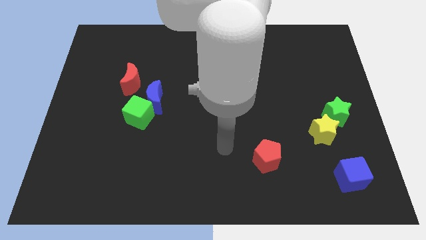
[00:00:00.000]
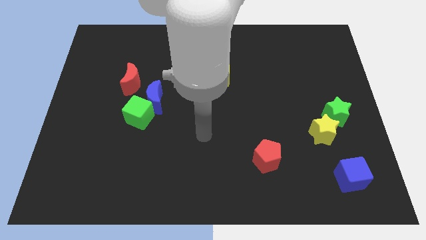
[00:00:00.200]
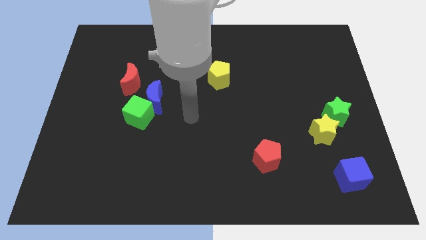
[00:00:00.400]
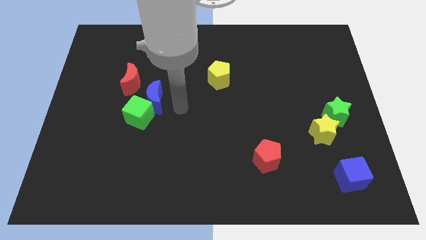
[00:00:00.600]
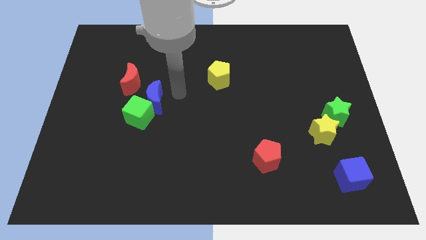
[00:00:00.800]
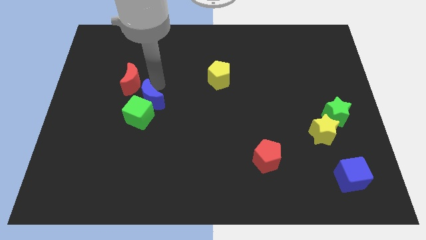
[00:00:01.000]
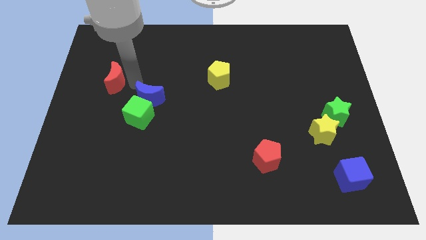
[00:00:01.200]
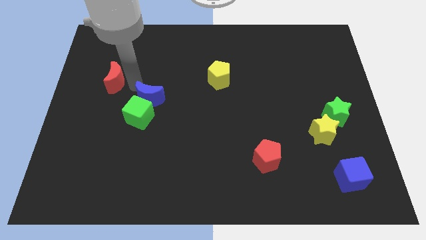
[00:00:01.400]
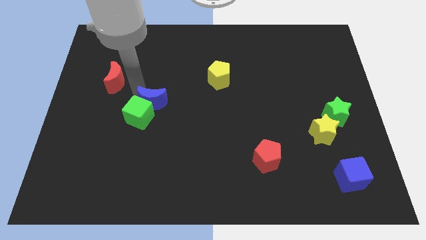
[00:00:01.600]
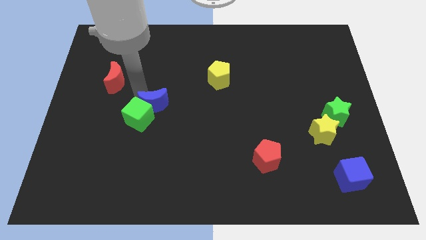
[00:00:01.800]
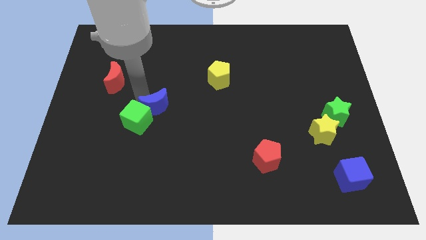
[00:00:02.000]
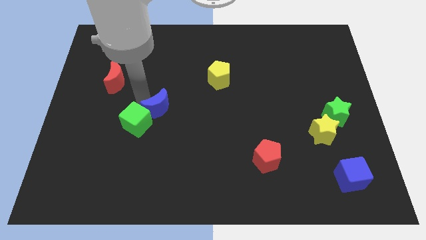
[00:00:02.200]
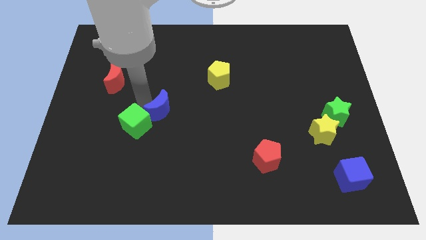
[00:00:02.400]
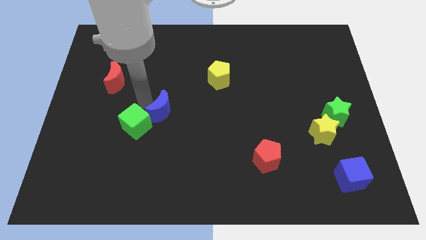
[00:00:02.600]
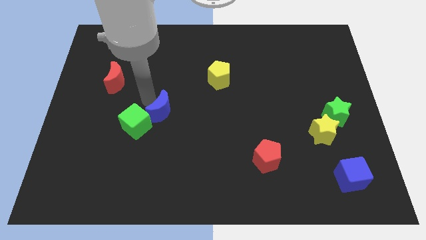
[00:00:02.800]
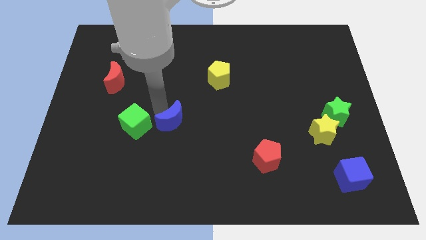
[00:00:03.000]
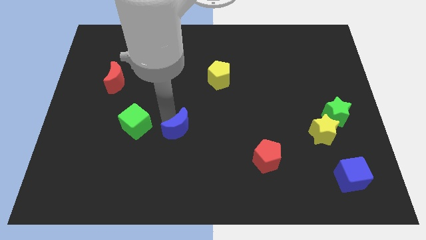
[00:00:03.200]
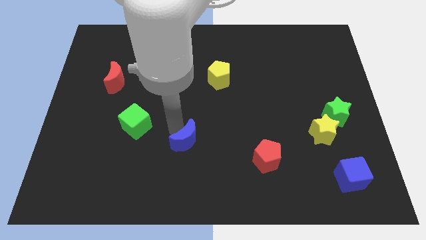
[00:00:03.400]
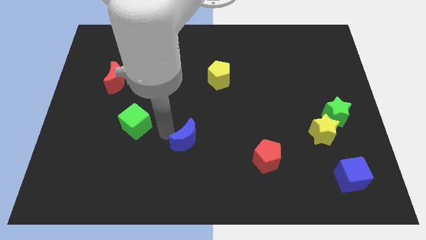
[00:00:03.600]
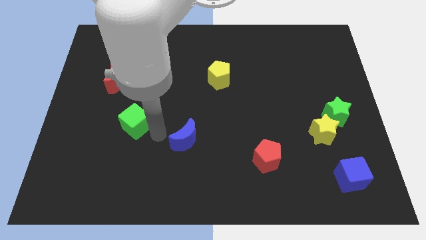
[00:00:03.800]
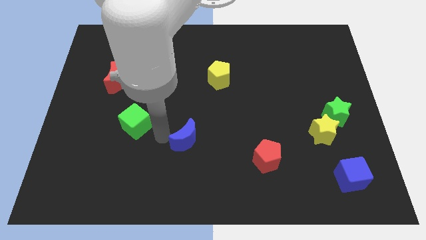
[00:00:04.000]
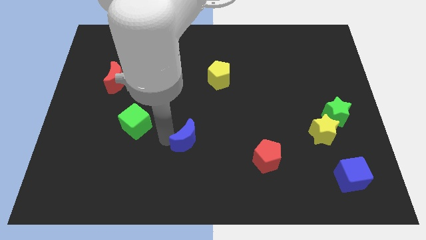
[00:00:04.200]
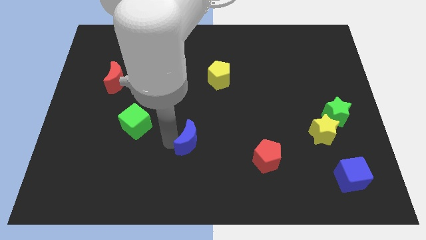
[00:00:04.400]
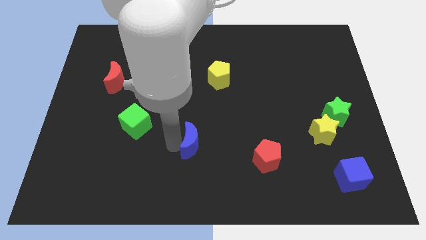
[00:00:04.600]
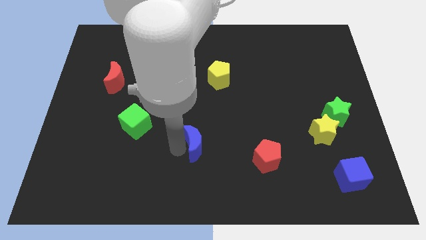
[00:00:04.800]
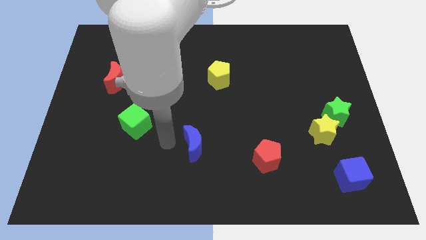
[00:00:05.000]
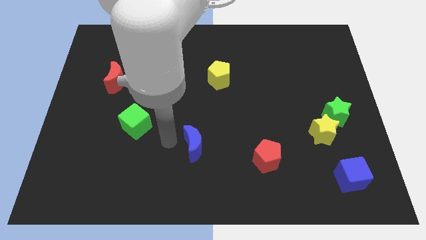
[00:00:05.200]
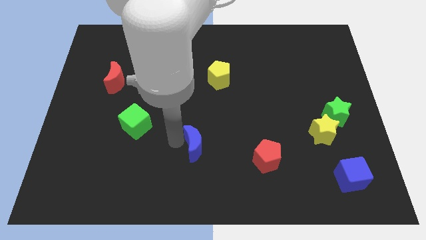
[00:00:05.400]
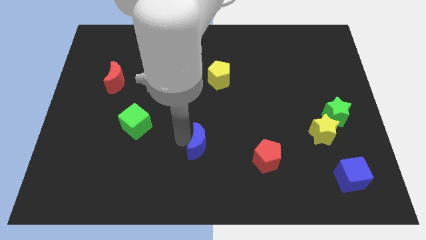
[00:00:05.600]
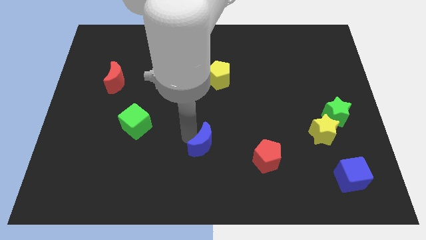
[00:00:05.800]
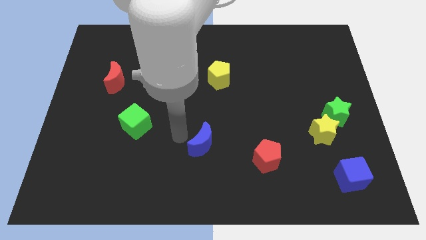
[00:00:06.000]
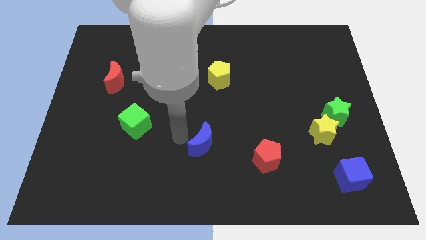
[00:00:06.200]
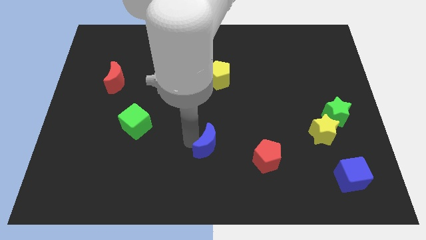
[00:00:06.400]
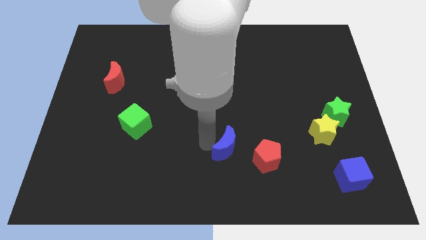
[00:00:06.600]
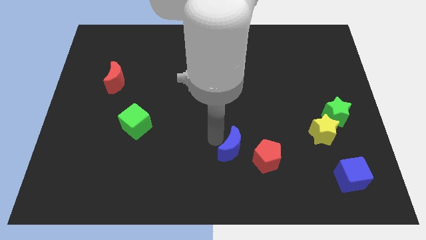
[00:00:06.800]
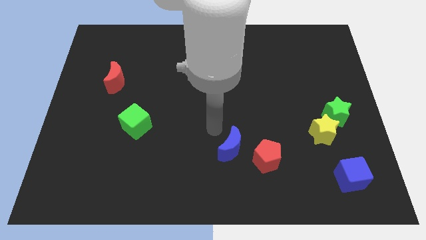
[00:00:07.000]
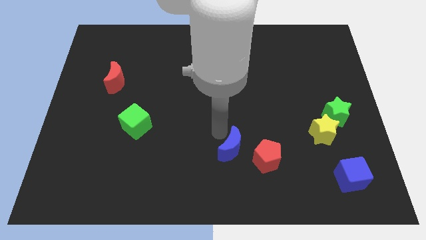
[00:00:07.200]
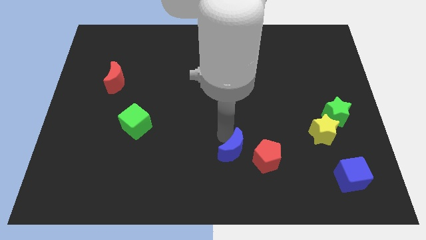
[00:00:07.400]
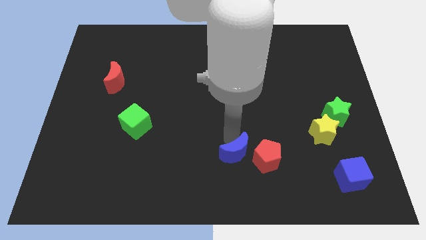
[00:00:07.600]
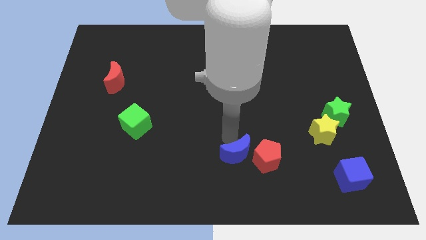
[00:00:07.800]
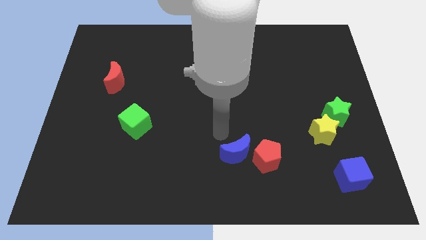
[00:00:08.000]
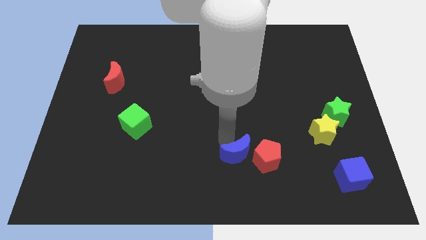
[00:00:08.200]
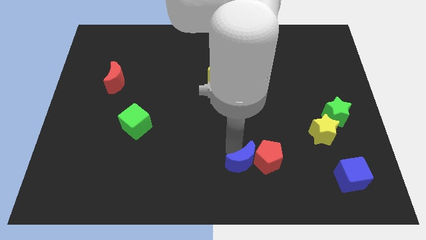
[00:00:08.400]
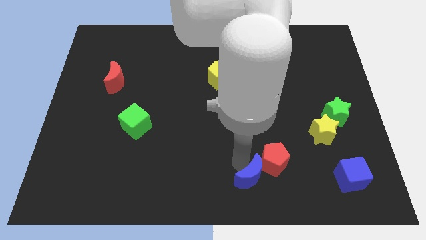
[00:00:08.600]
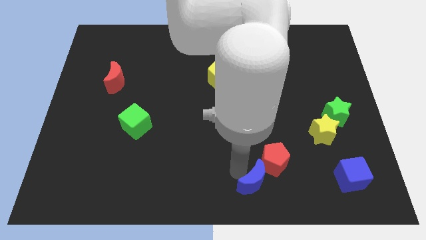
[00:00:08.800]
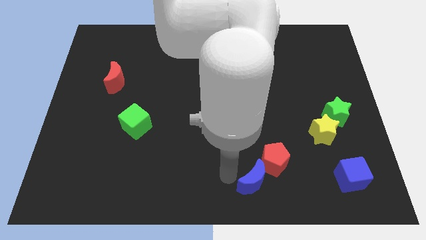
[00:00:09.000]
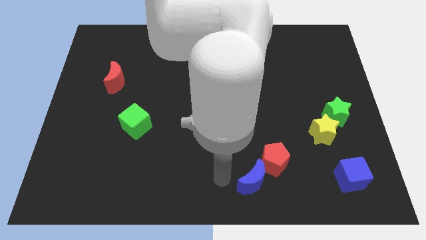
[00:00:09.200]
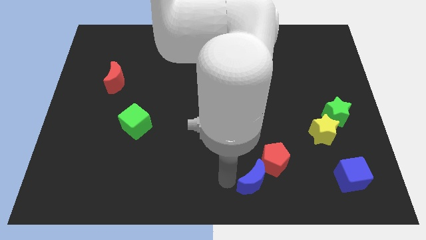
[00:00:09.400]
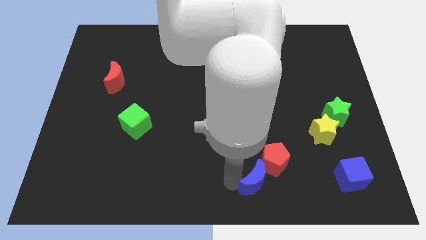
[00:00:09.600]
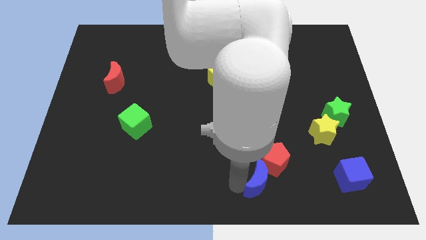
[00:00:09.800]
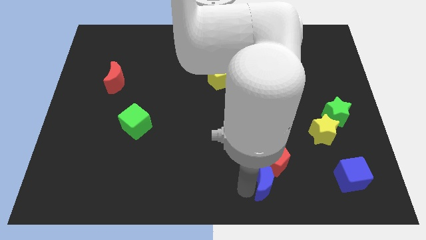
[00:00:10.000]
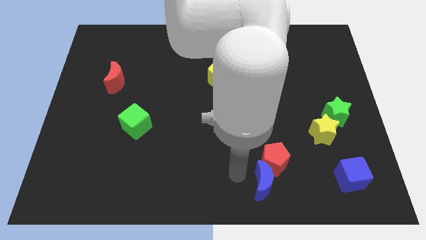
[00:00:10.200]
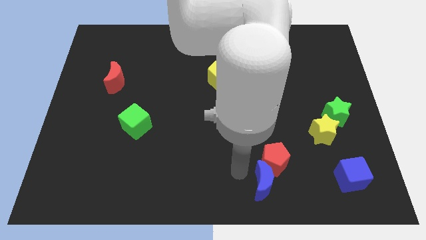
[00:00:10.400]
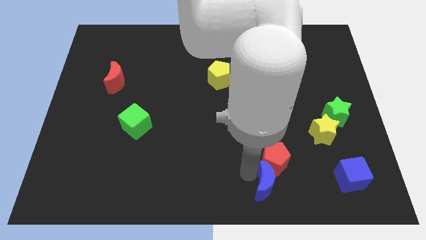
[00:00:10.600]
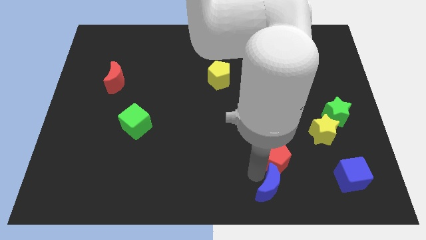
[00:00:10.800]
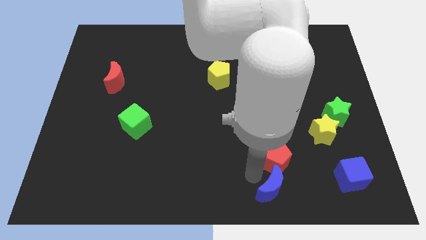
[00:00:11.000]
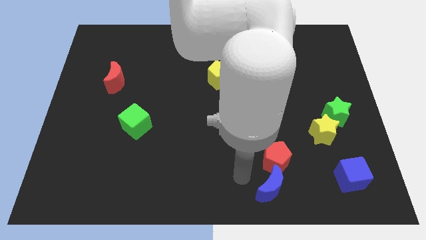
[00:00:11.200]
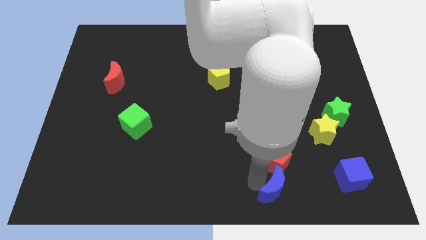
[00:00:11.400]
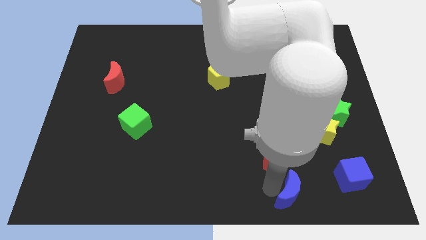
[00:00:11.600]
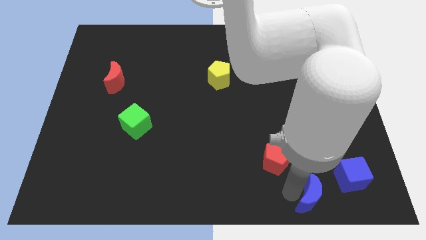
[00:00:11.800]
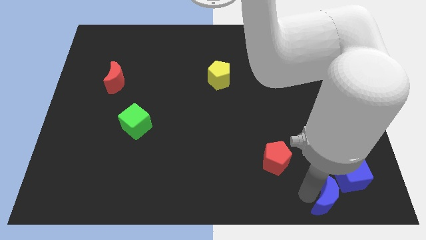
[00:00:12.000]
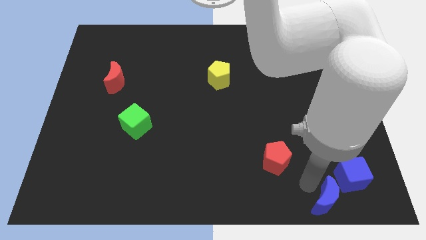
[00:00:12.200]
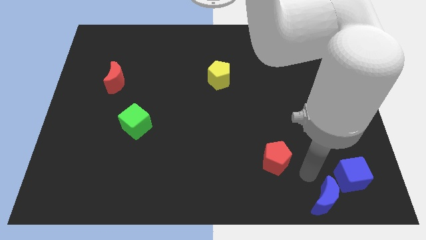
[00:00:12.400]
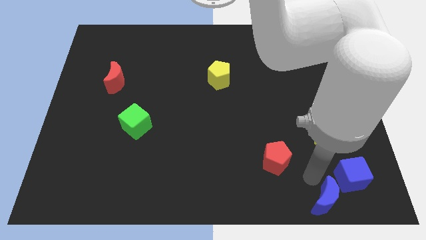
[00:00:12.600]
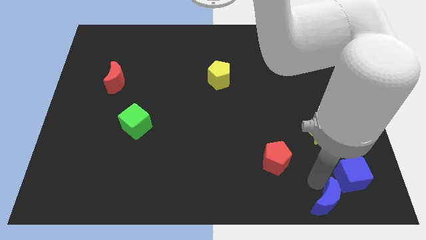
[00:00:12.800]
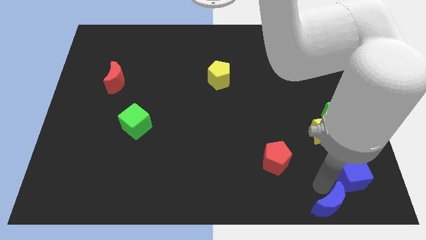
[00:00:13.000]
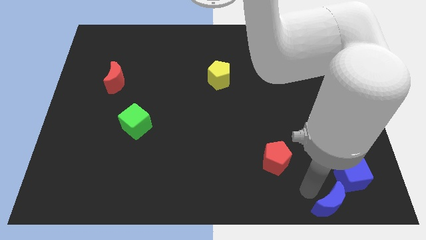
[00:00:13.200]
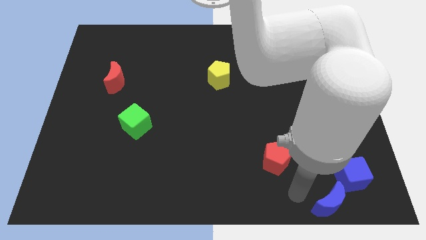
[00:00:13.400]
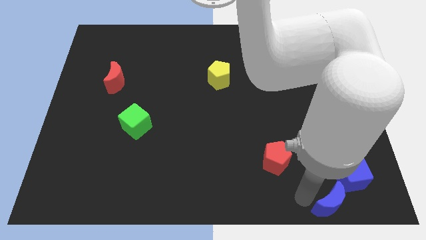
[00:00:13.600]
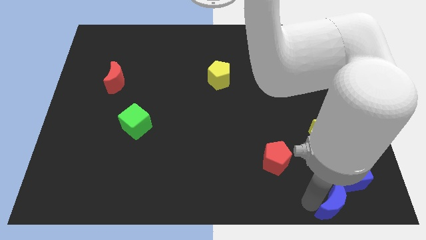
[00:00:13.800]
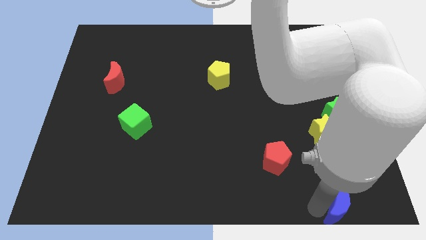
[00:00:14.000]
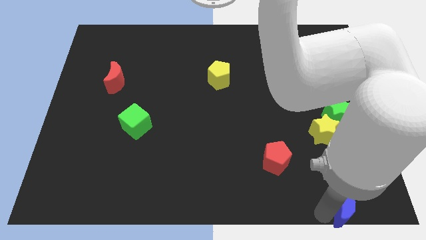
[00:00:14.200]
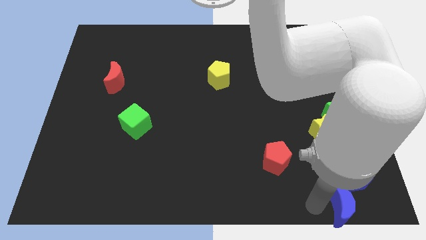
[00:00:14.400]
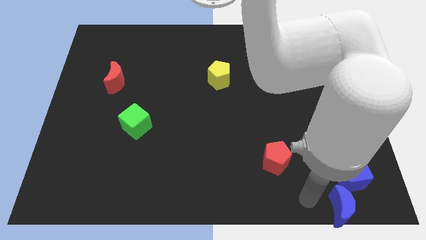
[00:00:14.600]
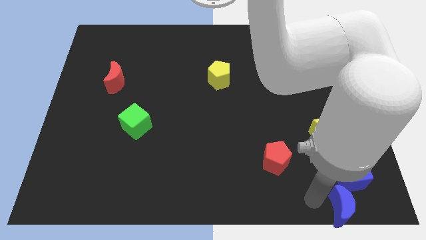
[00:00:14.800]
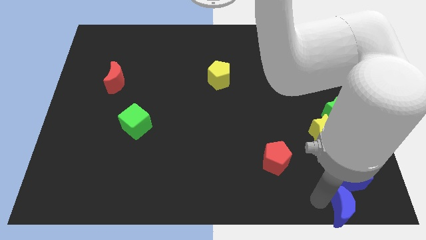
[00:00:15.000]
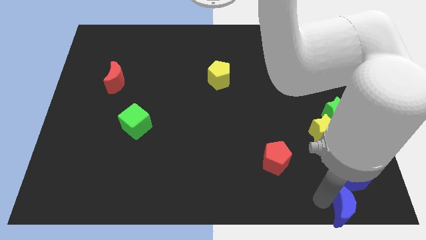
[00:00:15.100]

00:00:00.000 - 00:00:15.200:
move the blue moon to the lower right corner
